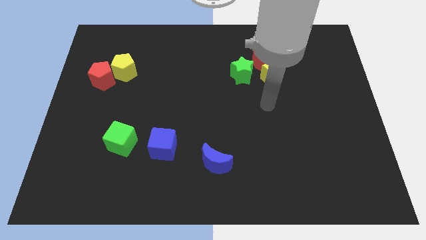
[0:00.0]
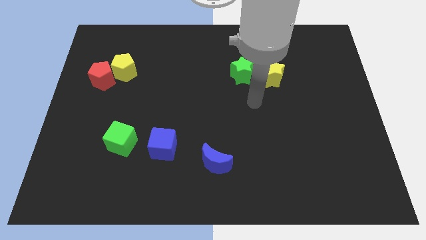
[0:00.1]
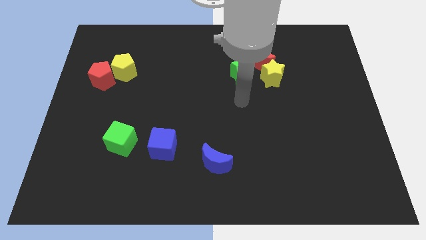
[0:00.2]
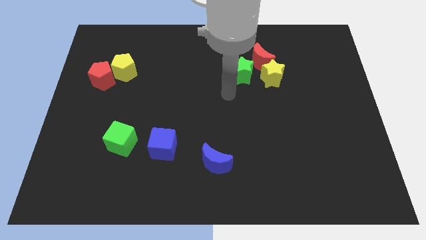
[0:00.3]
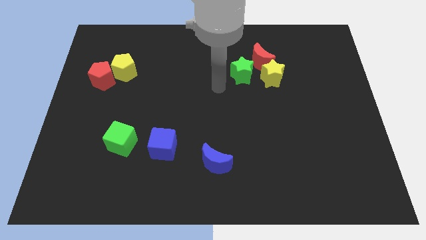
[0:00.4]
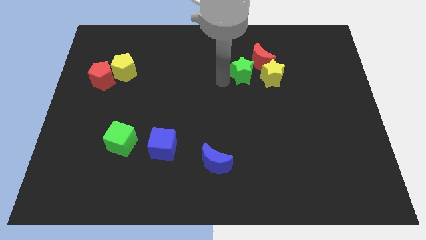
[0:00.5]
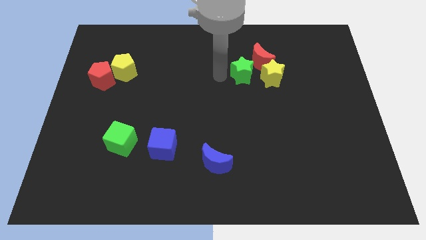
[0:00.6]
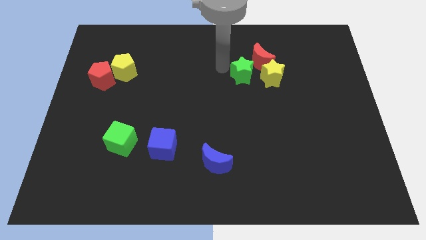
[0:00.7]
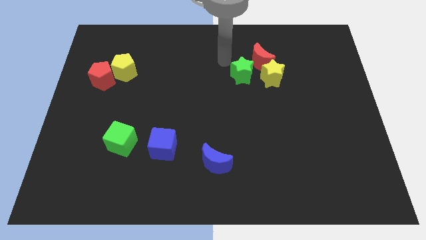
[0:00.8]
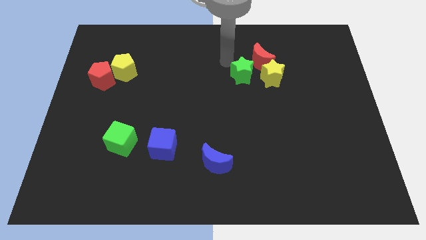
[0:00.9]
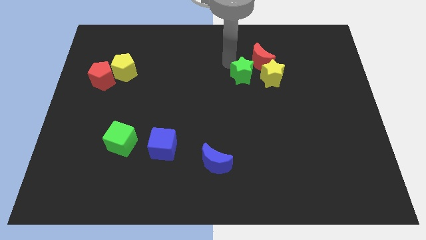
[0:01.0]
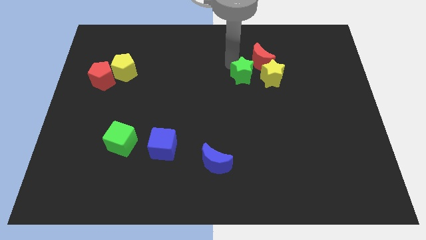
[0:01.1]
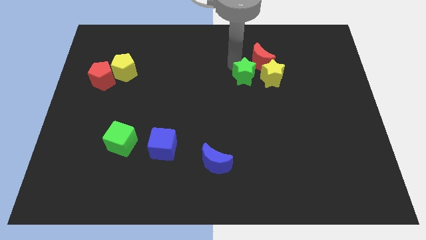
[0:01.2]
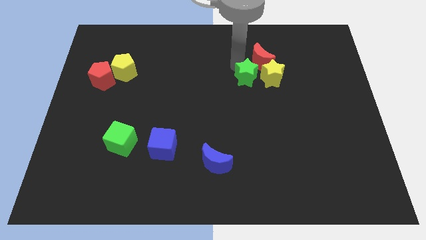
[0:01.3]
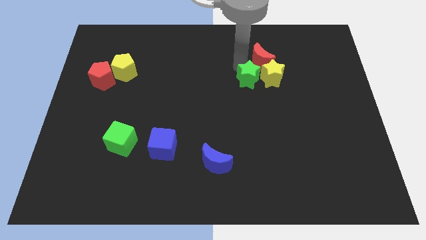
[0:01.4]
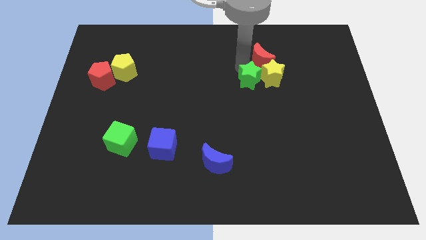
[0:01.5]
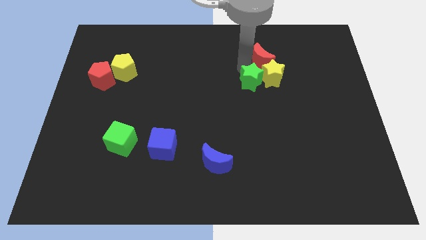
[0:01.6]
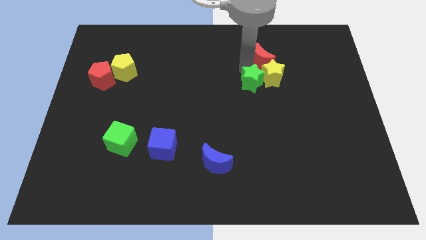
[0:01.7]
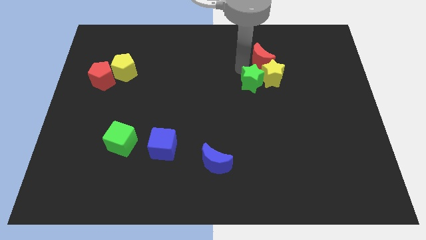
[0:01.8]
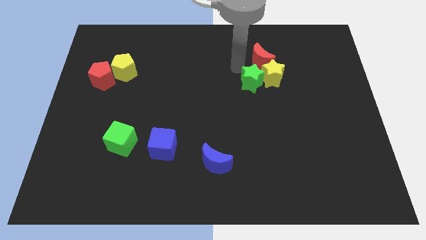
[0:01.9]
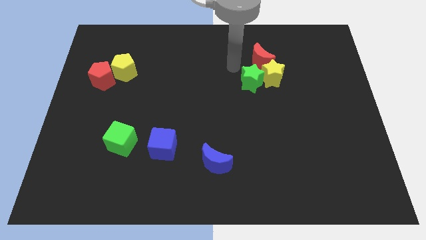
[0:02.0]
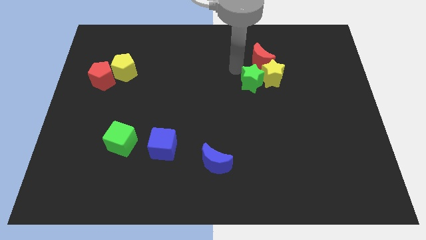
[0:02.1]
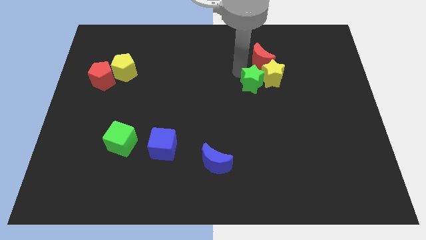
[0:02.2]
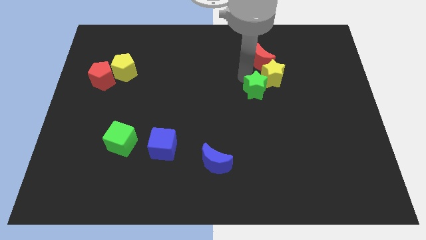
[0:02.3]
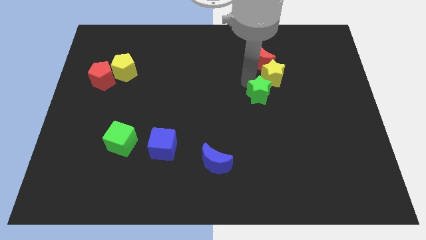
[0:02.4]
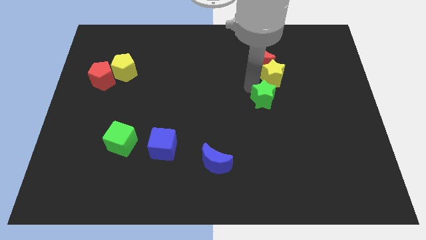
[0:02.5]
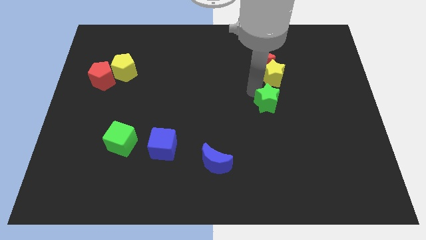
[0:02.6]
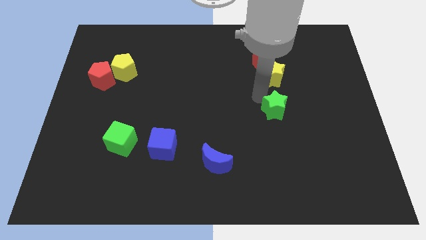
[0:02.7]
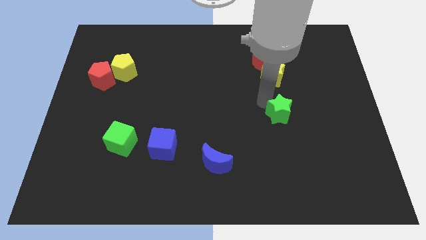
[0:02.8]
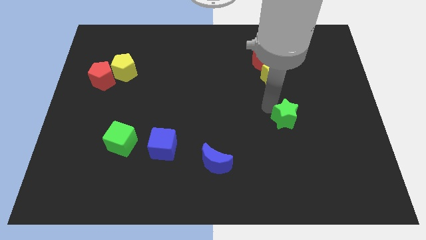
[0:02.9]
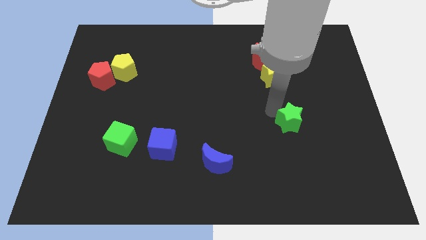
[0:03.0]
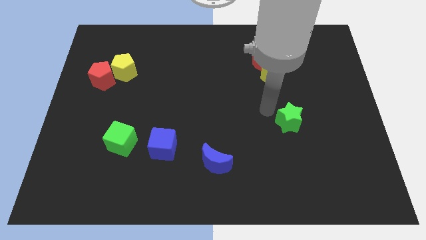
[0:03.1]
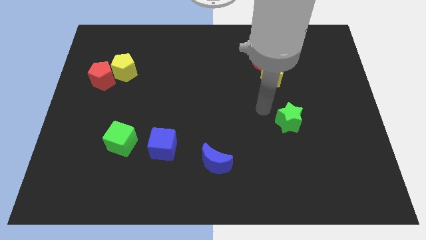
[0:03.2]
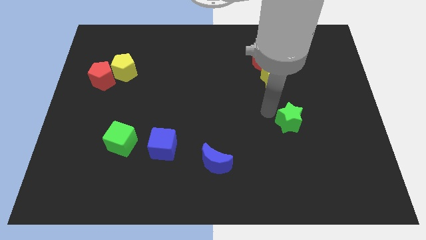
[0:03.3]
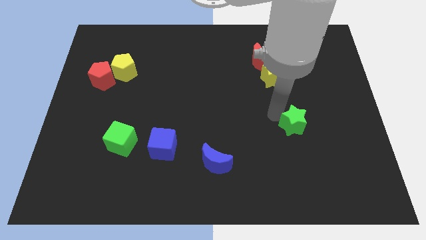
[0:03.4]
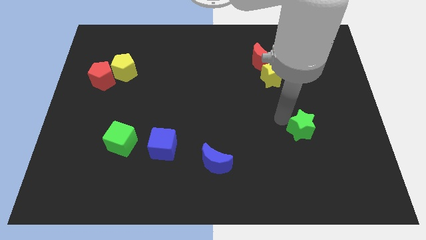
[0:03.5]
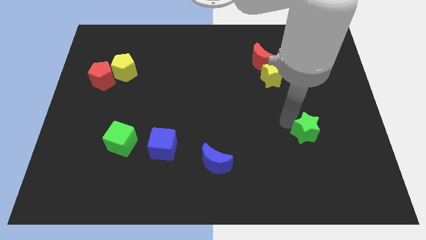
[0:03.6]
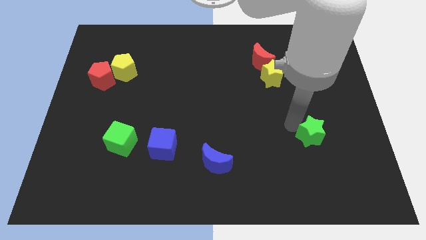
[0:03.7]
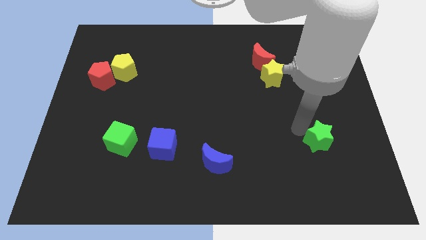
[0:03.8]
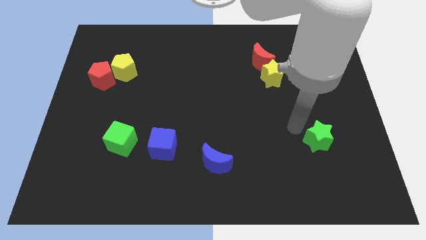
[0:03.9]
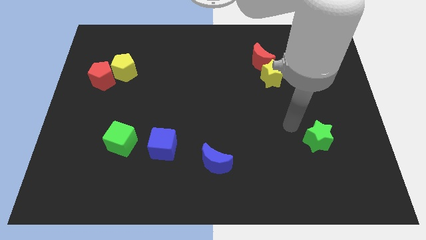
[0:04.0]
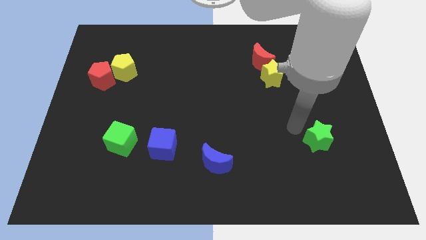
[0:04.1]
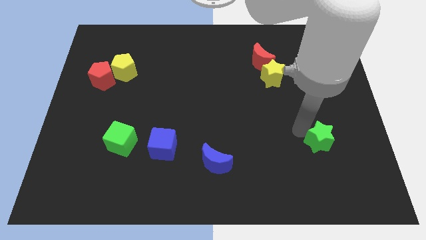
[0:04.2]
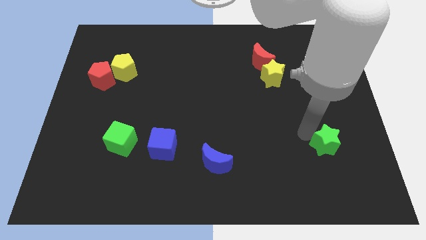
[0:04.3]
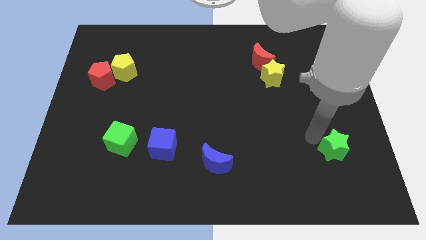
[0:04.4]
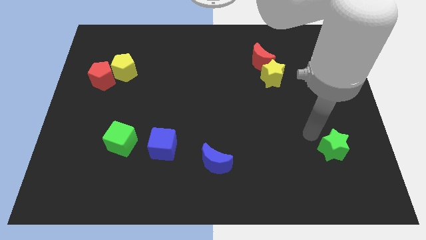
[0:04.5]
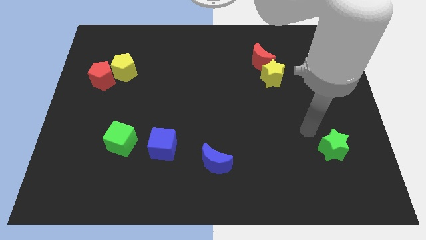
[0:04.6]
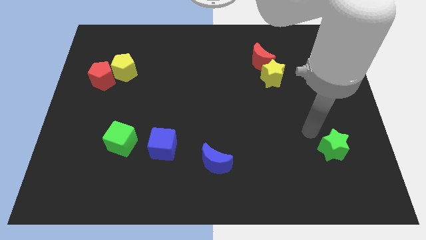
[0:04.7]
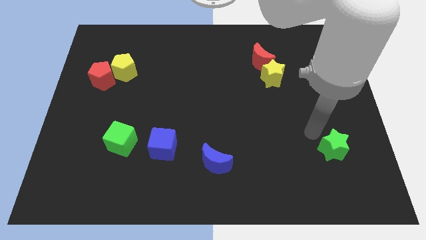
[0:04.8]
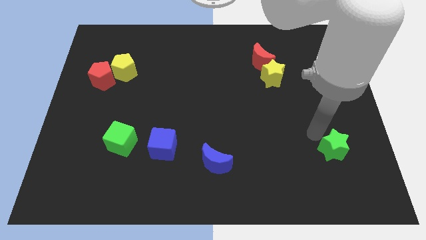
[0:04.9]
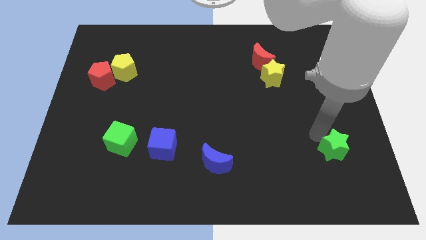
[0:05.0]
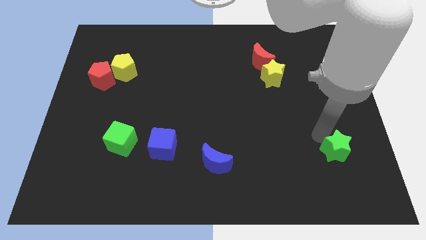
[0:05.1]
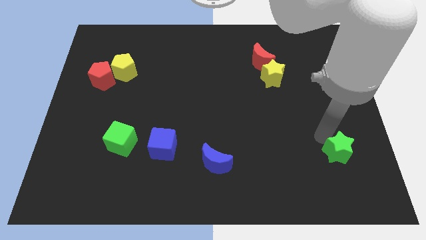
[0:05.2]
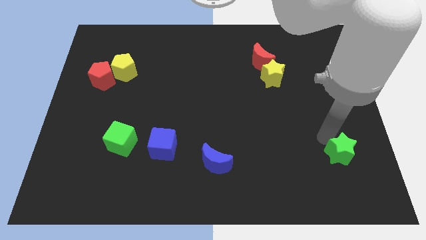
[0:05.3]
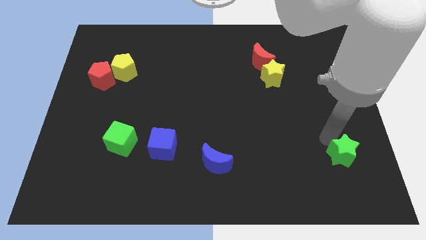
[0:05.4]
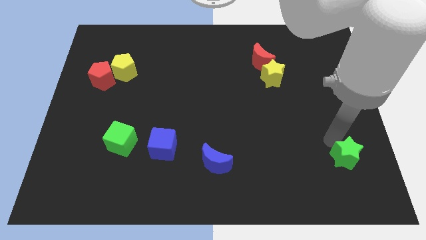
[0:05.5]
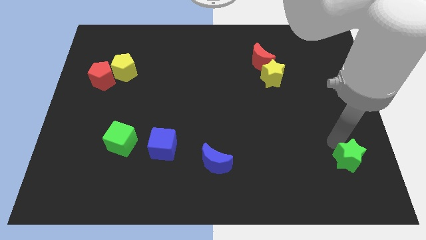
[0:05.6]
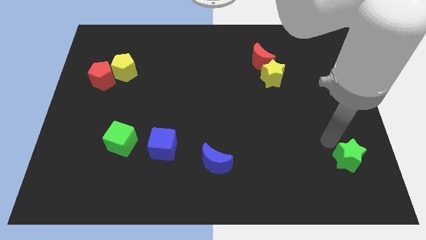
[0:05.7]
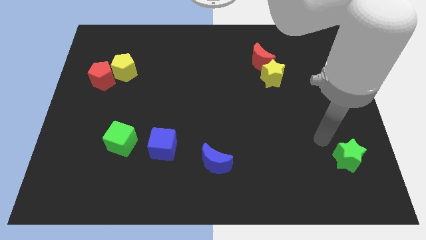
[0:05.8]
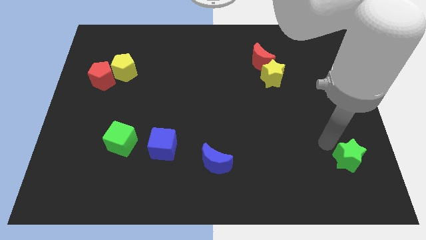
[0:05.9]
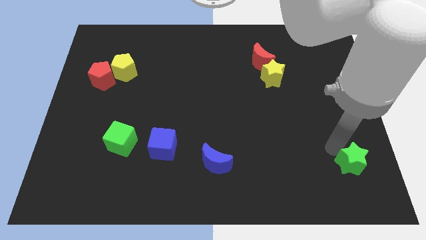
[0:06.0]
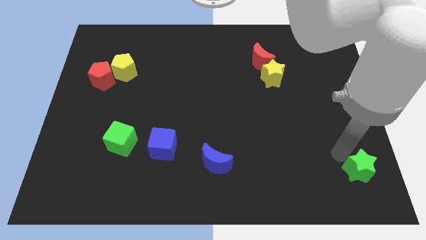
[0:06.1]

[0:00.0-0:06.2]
put the green star to the bottom right of the board
